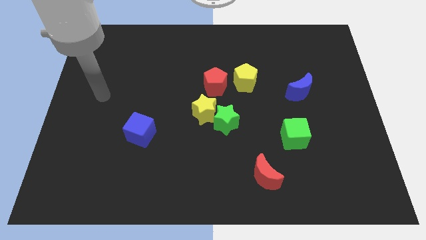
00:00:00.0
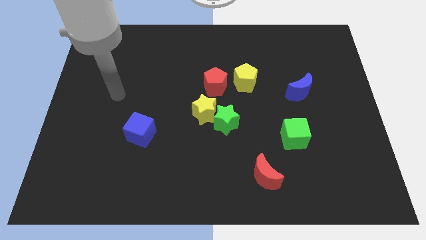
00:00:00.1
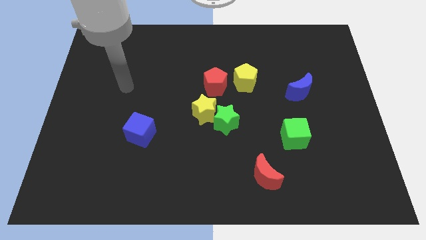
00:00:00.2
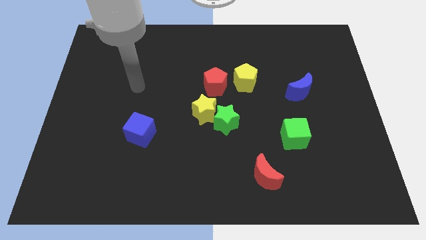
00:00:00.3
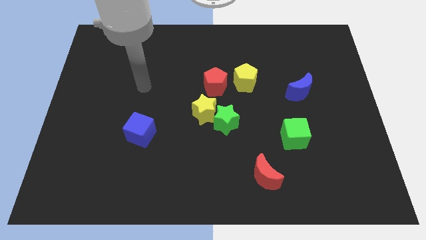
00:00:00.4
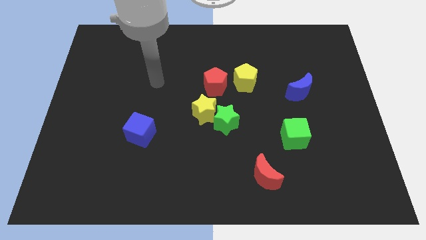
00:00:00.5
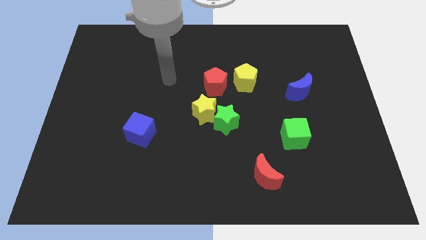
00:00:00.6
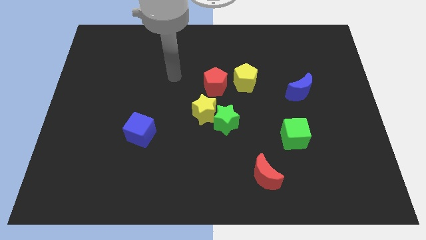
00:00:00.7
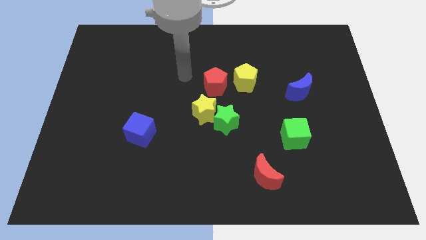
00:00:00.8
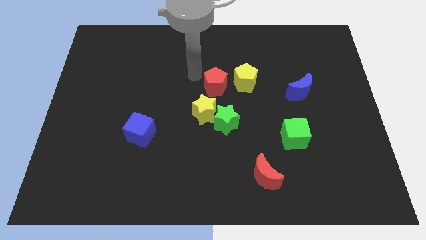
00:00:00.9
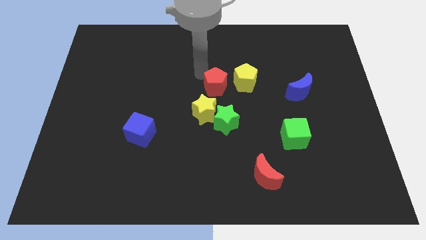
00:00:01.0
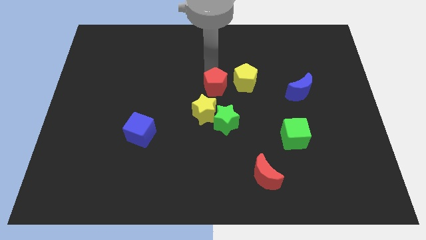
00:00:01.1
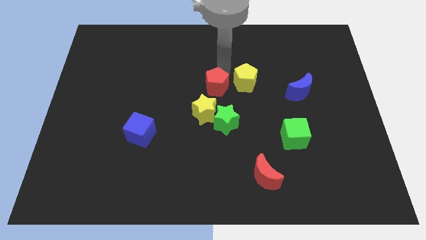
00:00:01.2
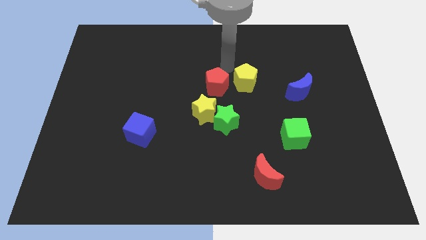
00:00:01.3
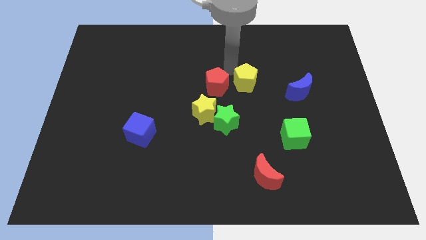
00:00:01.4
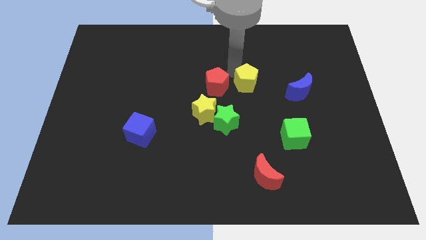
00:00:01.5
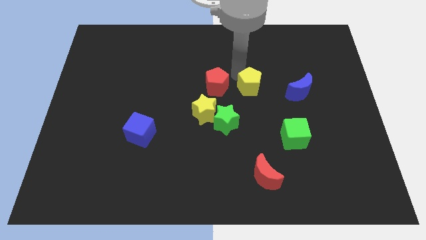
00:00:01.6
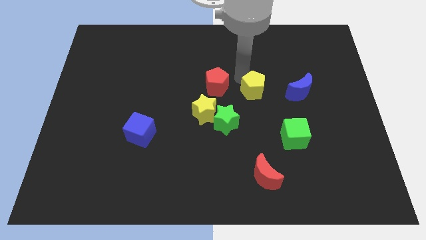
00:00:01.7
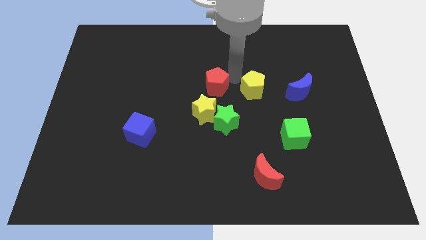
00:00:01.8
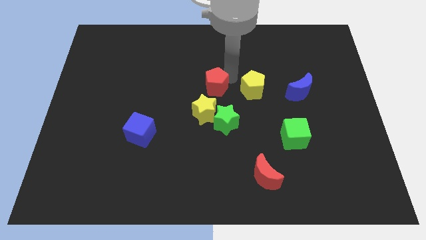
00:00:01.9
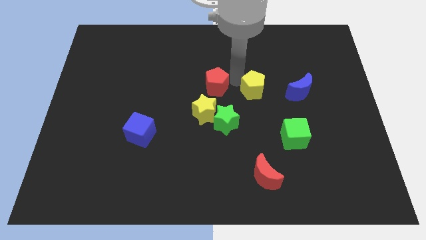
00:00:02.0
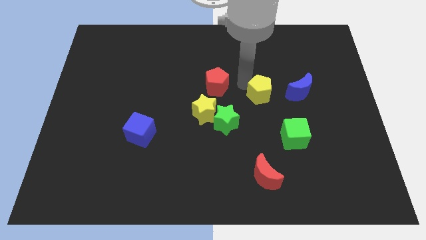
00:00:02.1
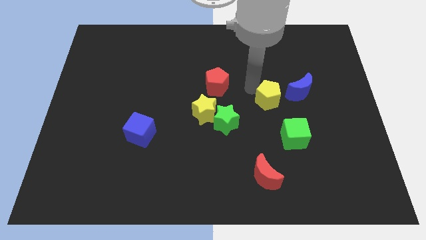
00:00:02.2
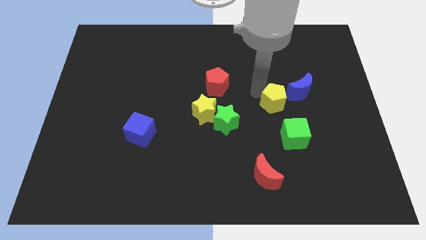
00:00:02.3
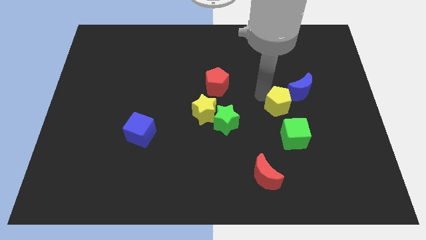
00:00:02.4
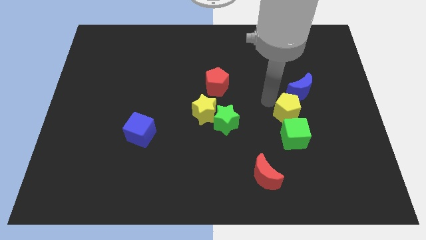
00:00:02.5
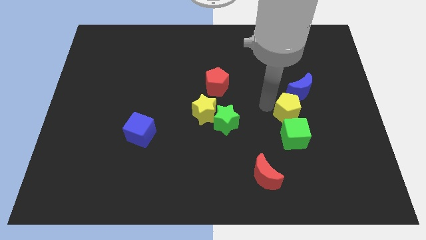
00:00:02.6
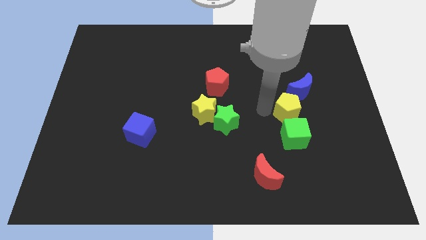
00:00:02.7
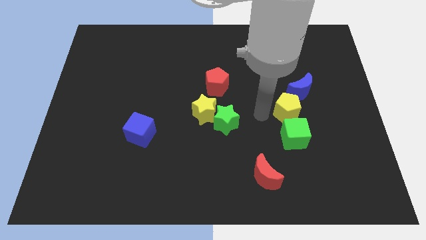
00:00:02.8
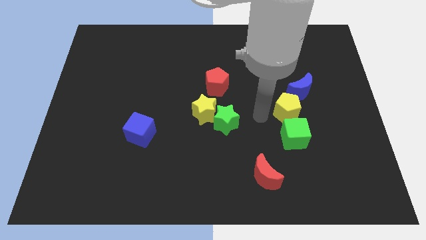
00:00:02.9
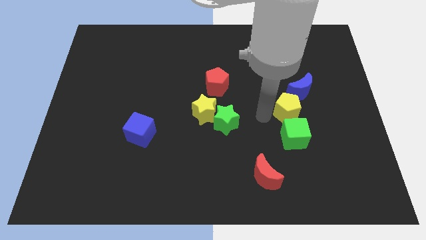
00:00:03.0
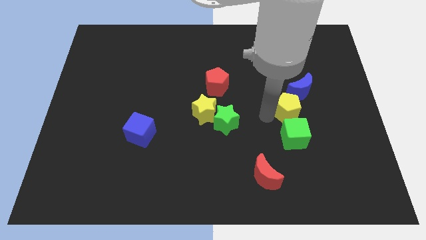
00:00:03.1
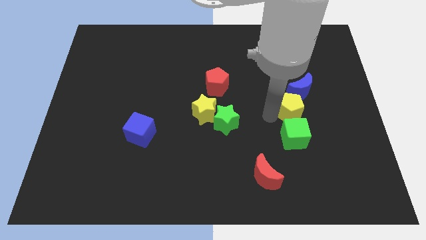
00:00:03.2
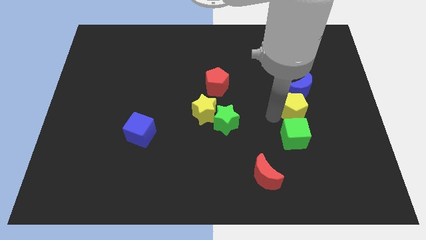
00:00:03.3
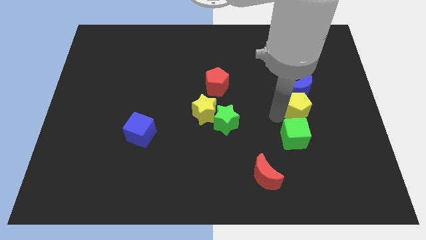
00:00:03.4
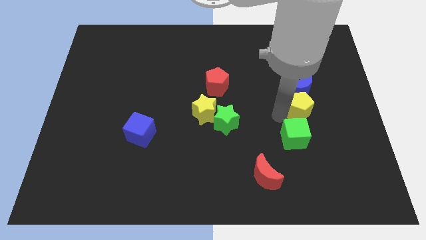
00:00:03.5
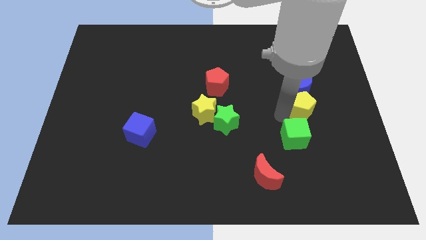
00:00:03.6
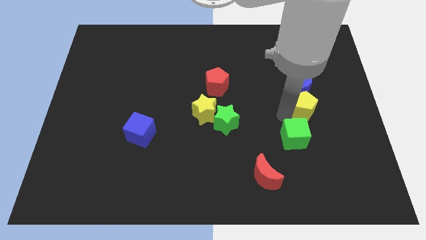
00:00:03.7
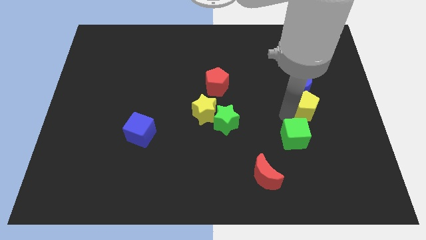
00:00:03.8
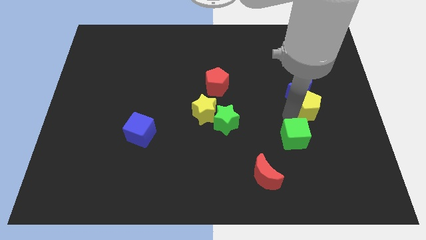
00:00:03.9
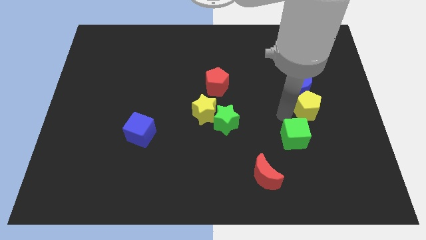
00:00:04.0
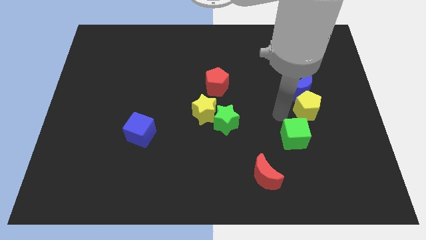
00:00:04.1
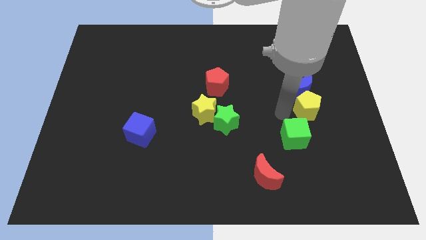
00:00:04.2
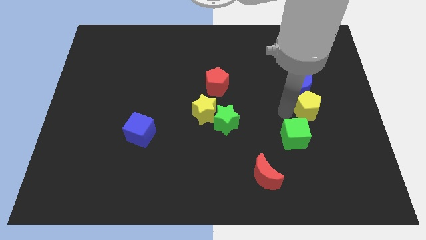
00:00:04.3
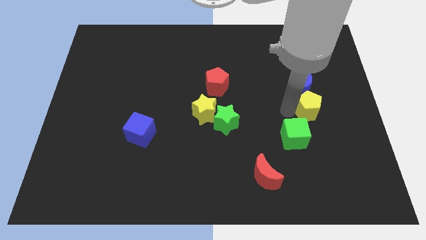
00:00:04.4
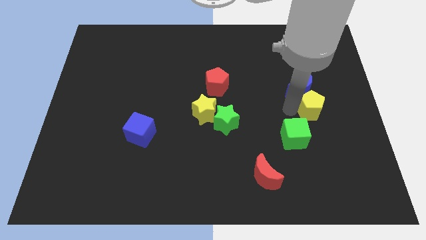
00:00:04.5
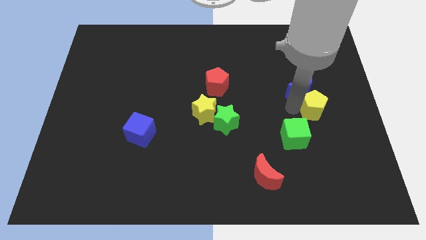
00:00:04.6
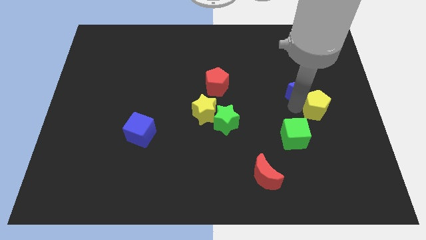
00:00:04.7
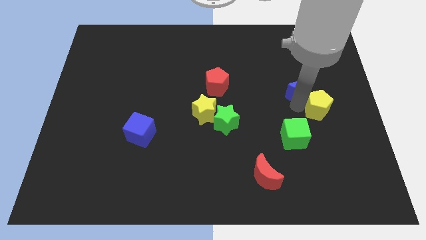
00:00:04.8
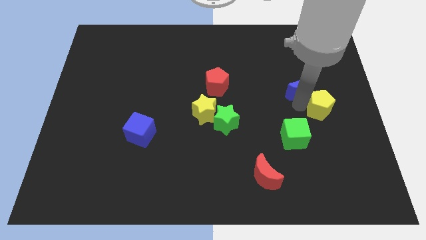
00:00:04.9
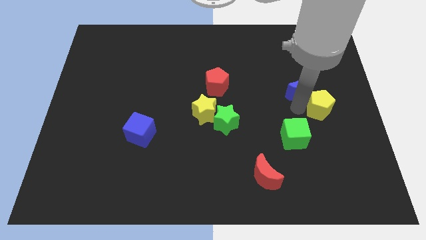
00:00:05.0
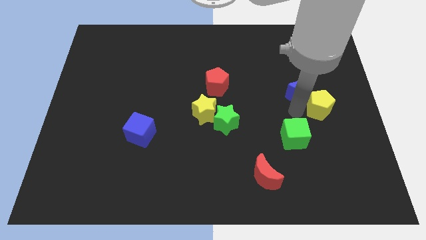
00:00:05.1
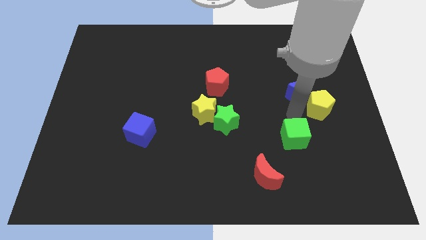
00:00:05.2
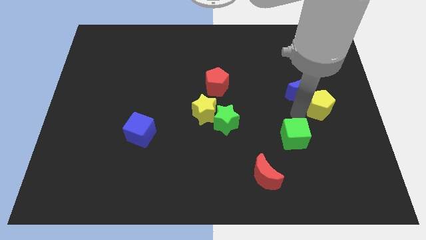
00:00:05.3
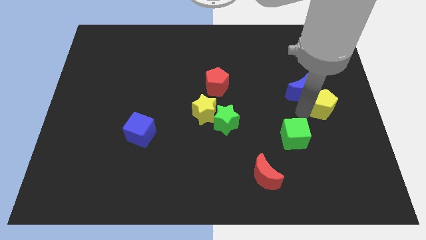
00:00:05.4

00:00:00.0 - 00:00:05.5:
put the yellow pentagon to the right side

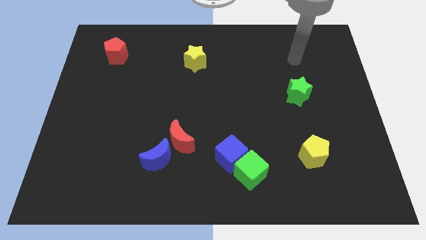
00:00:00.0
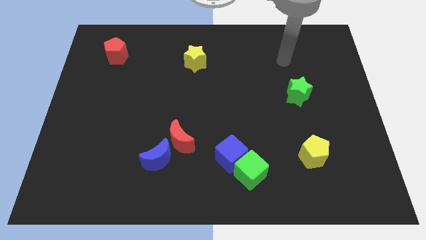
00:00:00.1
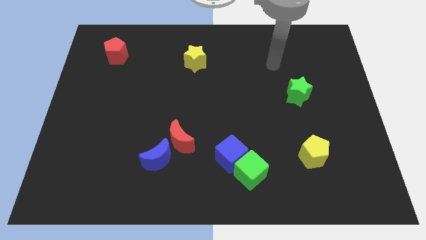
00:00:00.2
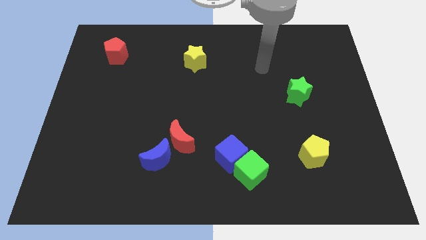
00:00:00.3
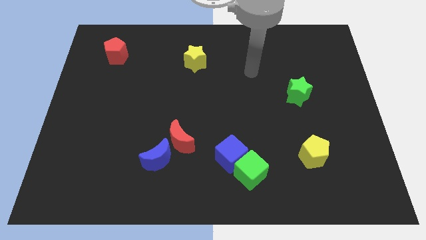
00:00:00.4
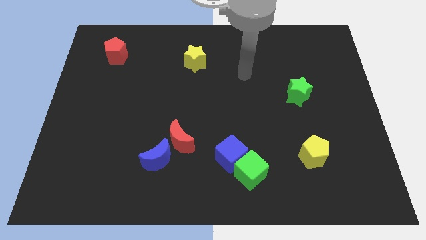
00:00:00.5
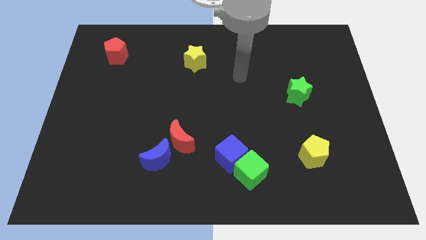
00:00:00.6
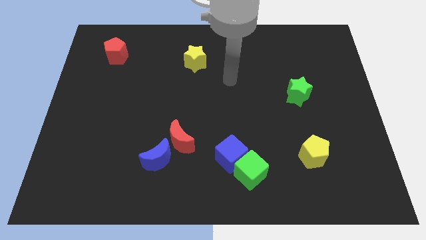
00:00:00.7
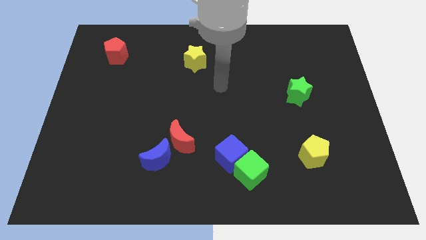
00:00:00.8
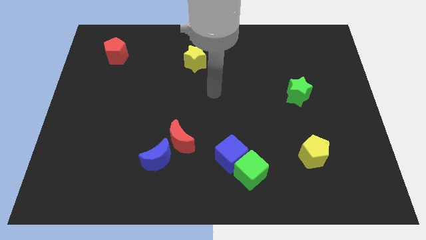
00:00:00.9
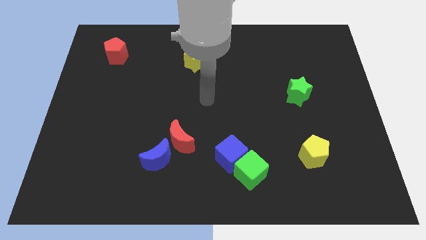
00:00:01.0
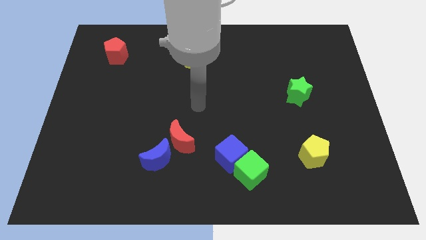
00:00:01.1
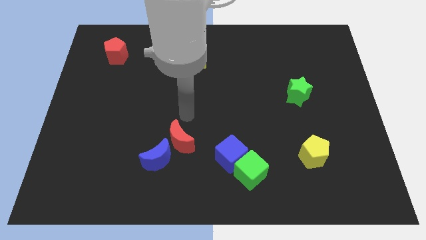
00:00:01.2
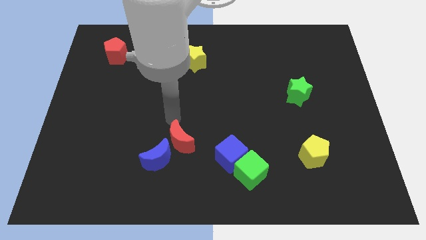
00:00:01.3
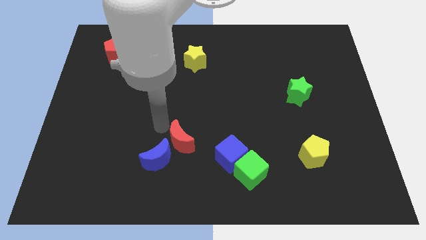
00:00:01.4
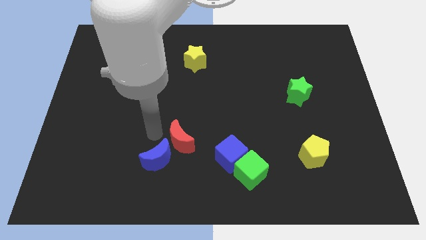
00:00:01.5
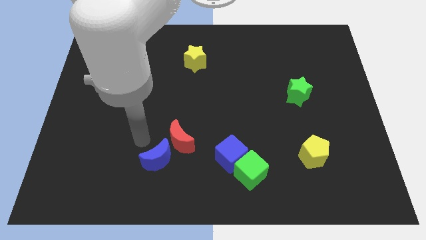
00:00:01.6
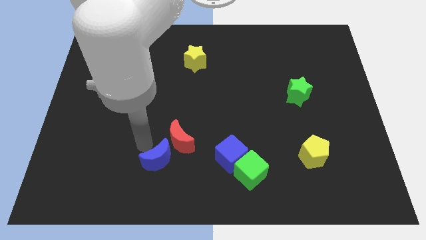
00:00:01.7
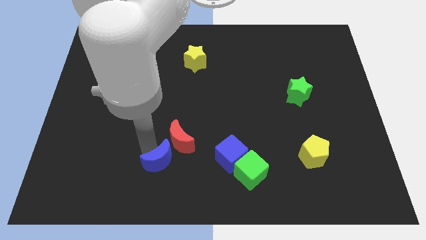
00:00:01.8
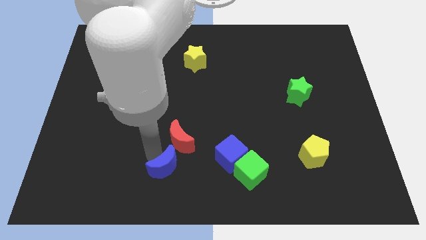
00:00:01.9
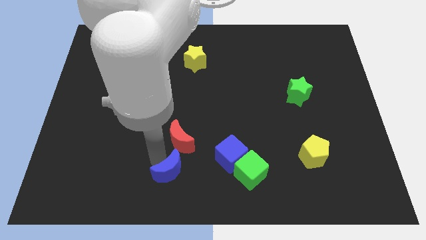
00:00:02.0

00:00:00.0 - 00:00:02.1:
push the blue moon to the bottom side
